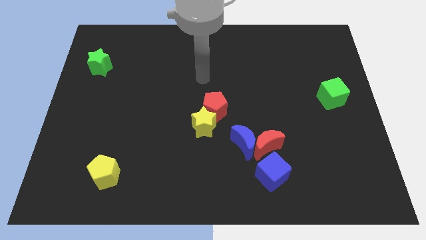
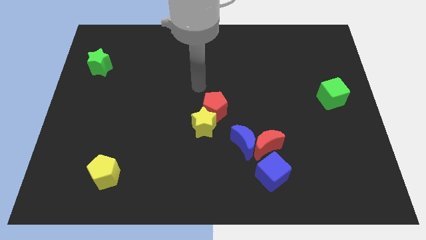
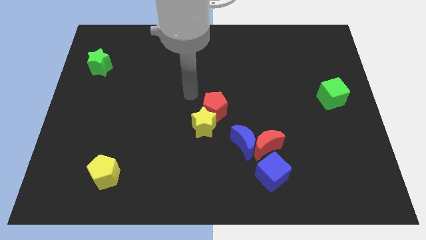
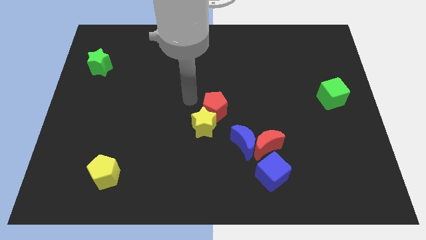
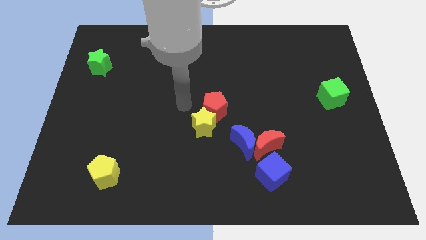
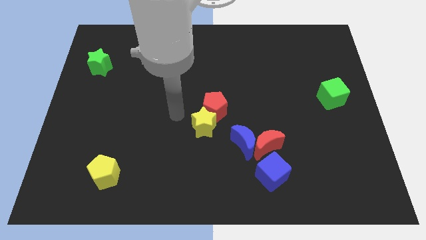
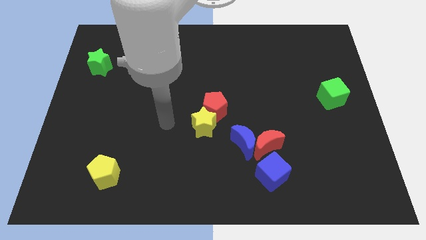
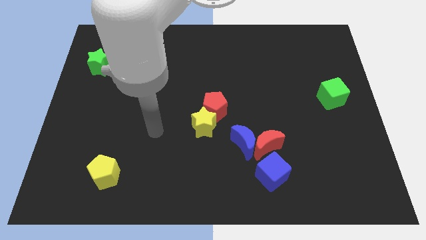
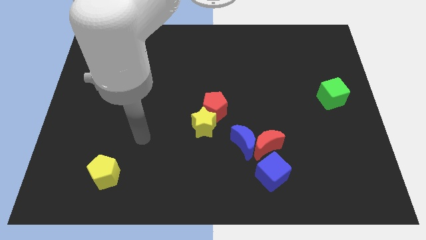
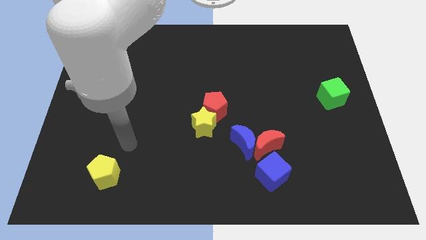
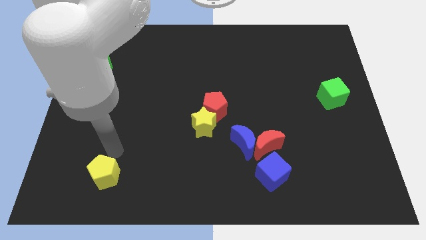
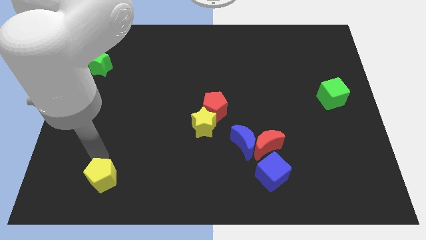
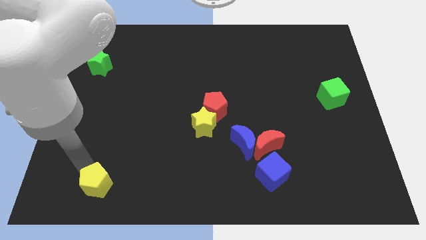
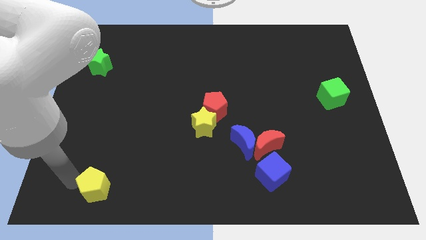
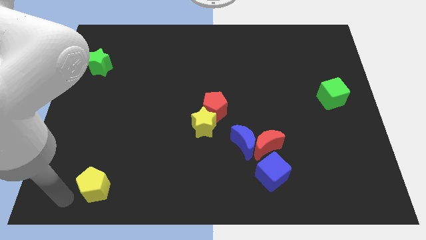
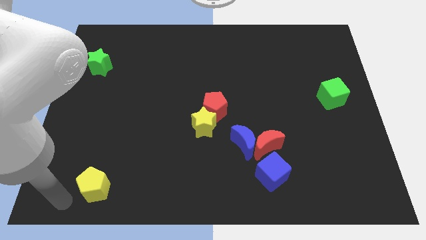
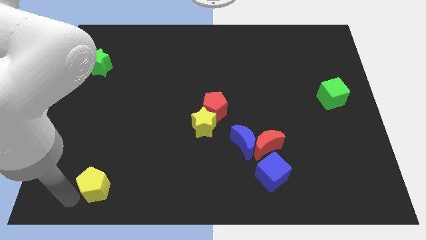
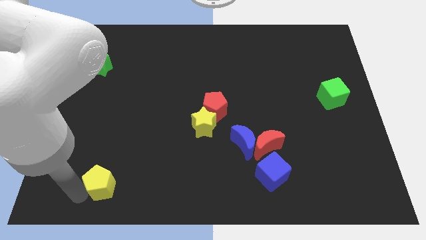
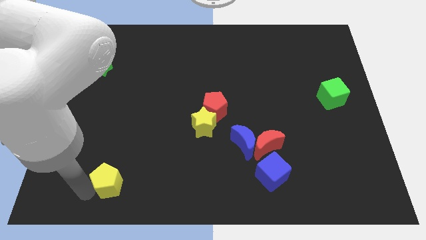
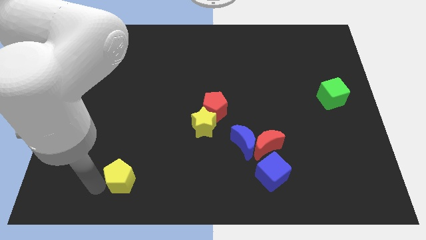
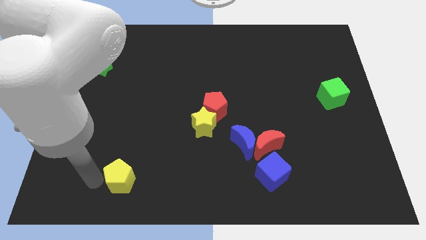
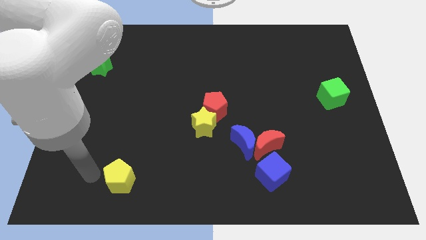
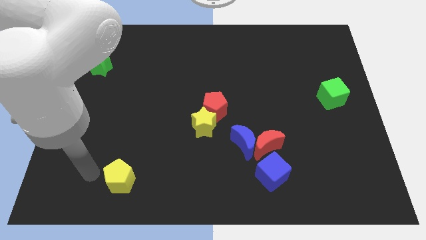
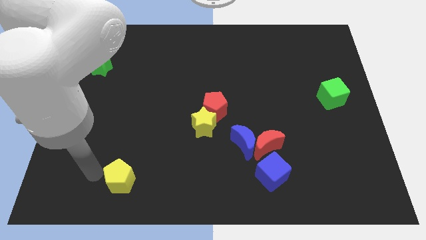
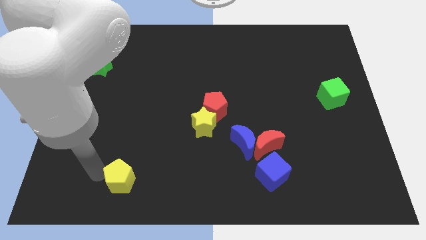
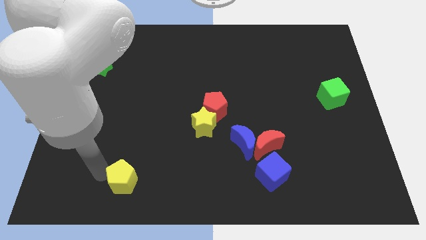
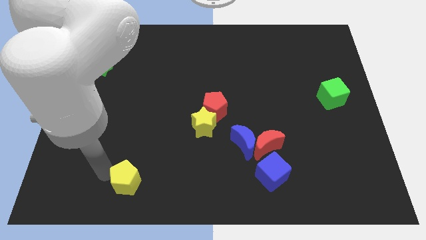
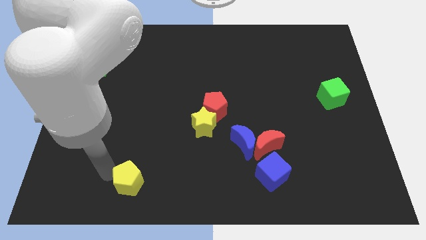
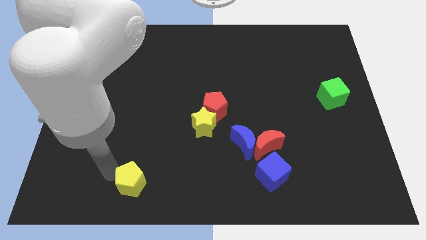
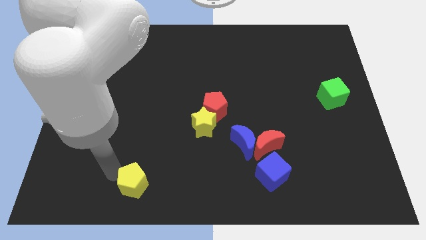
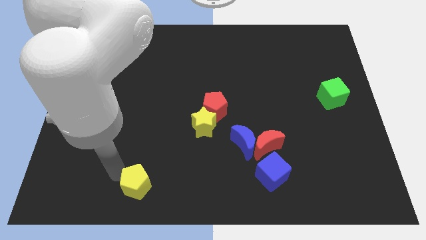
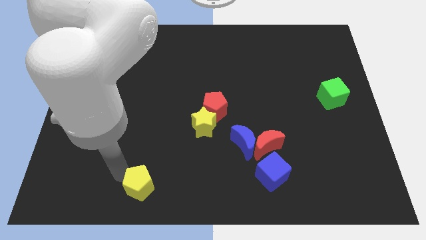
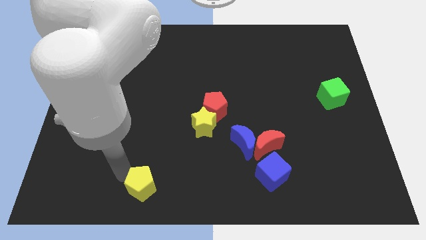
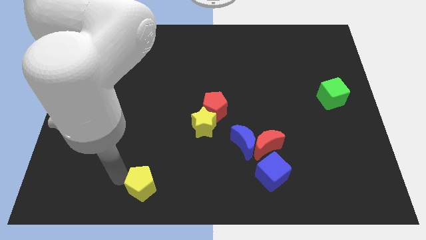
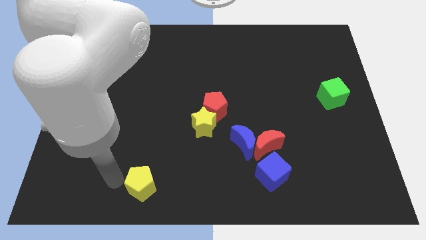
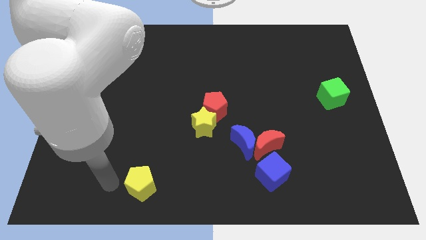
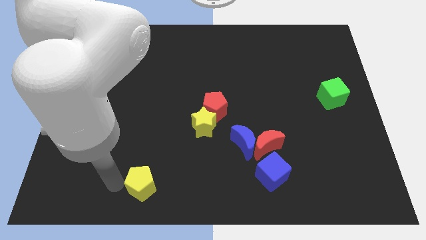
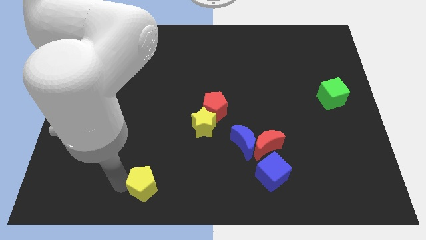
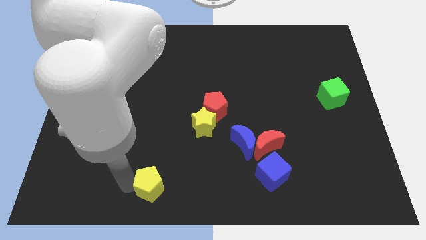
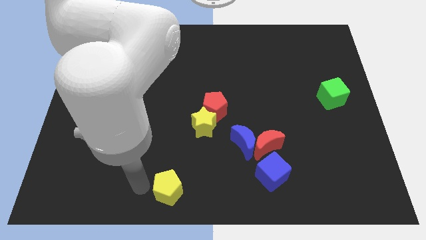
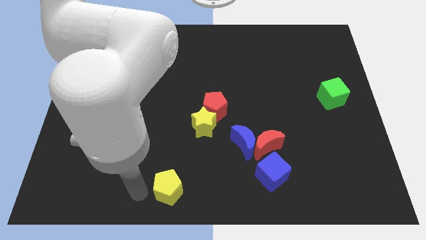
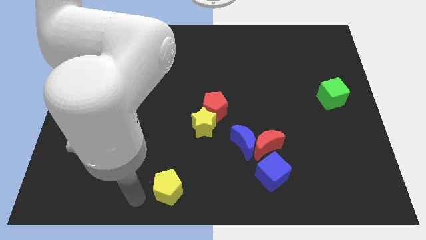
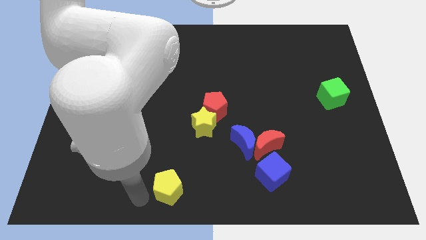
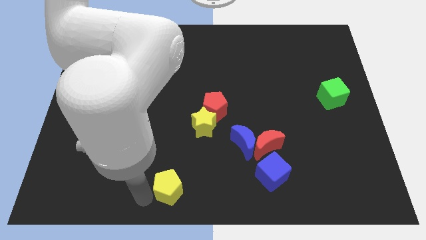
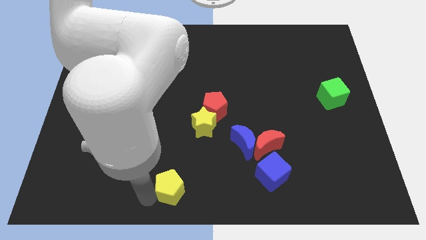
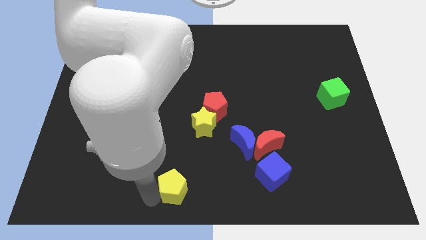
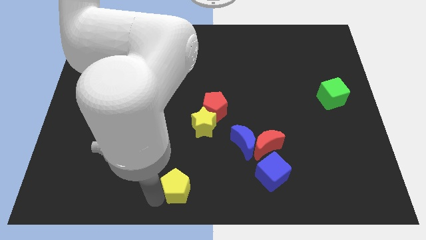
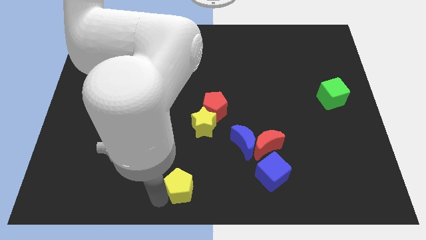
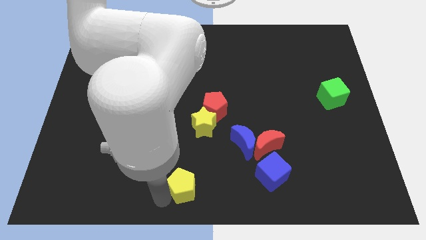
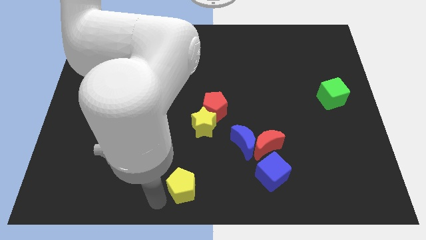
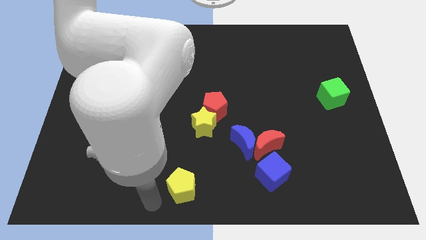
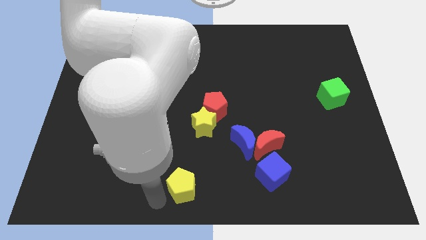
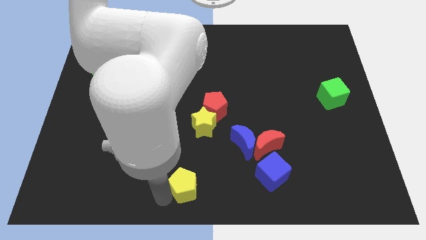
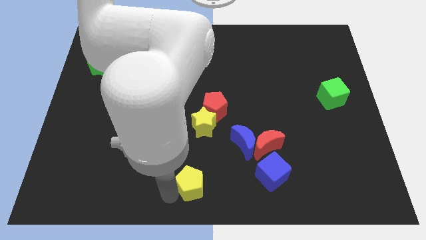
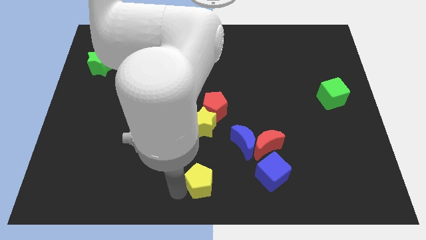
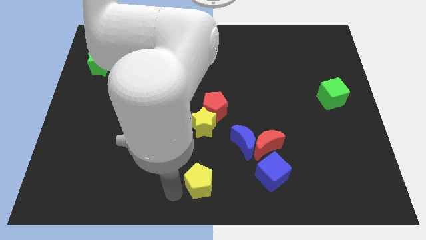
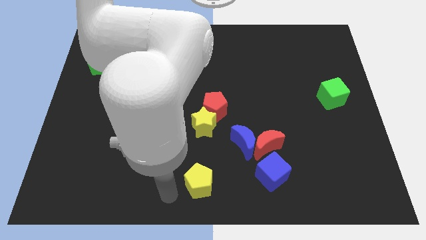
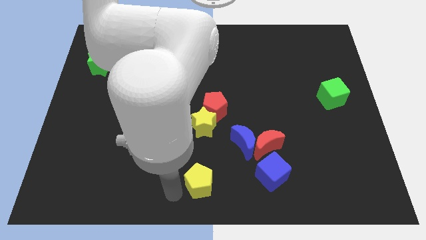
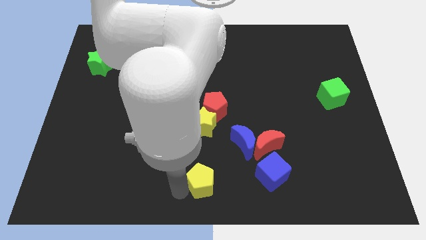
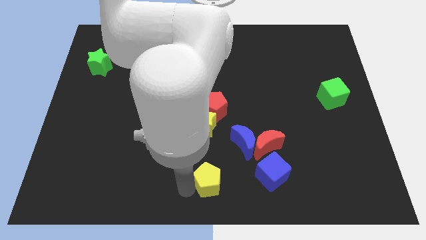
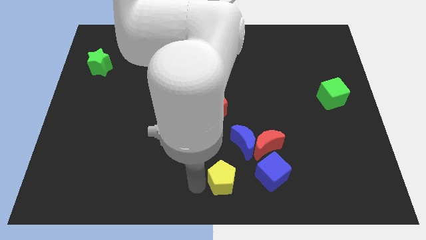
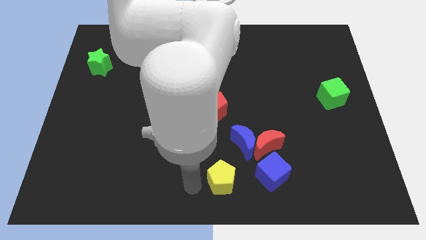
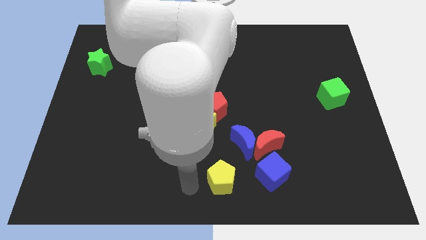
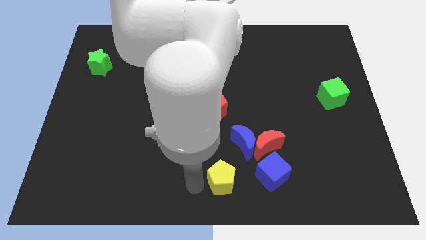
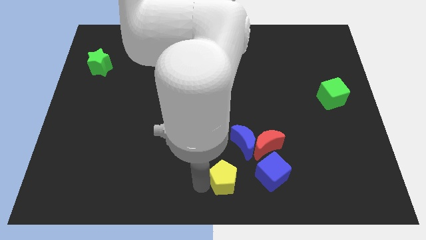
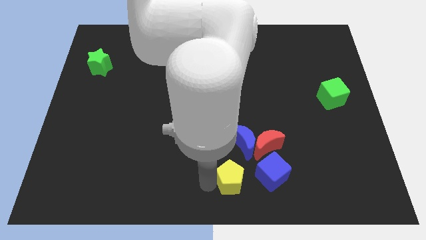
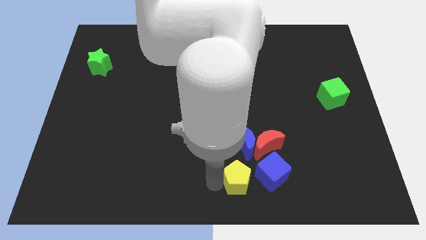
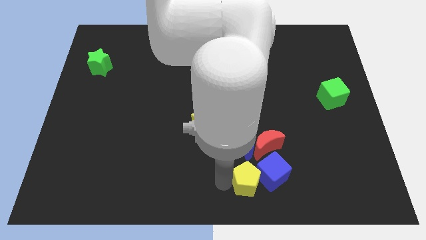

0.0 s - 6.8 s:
move the yellow pentagon to the blue cube

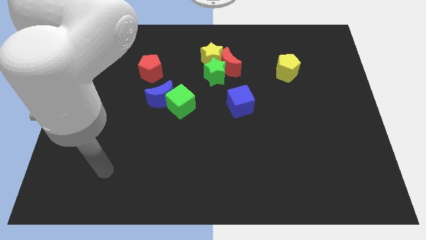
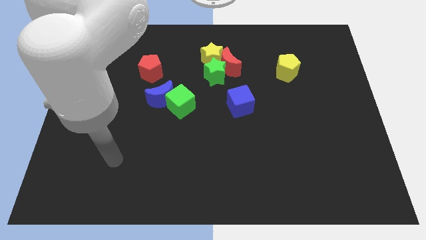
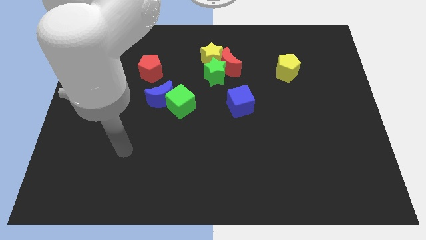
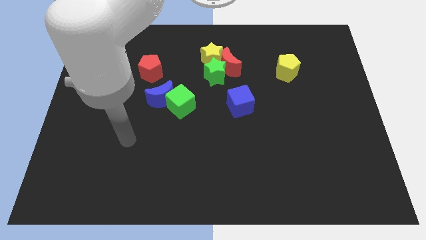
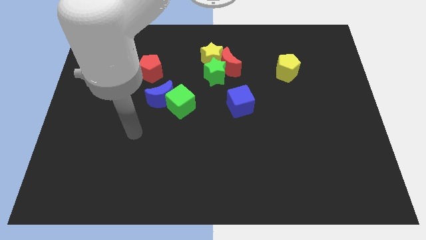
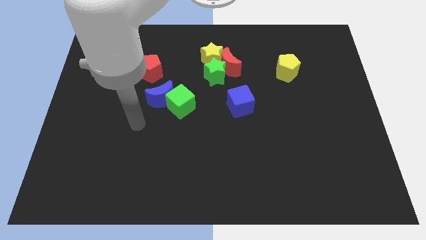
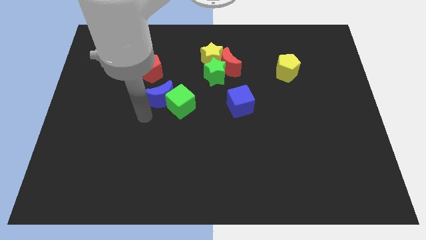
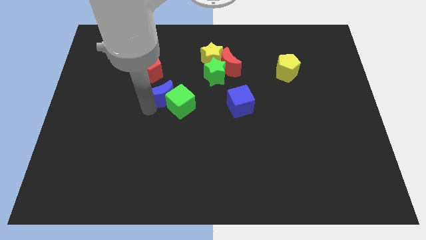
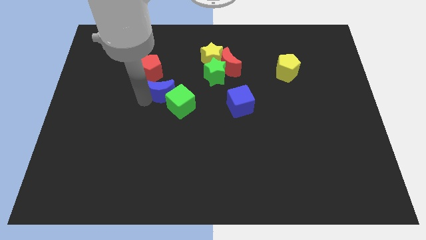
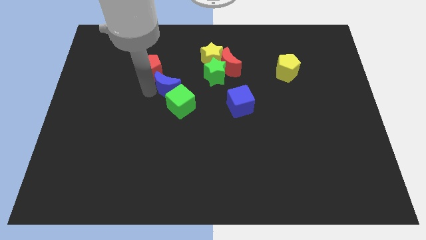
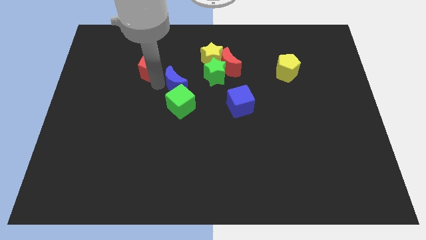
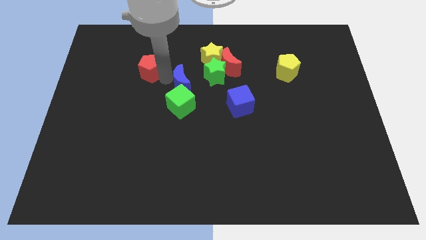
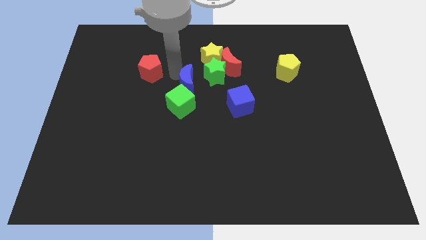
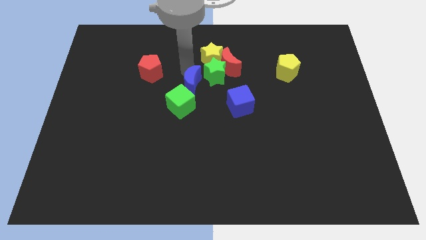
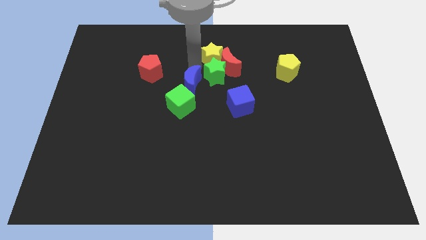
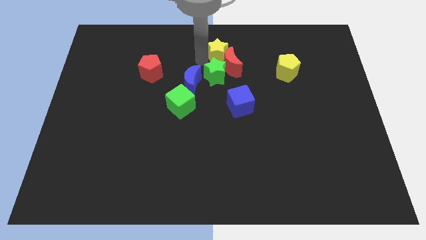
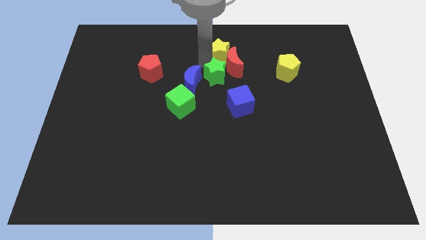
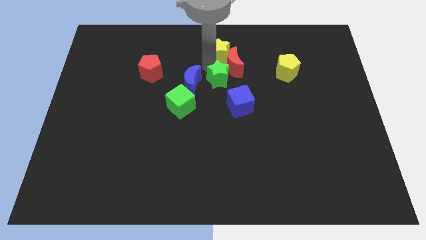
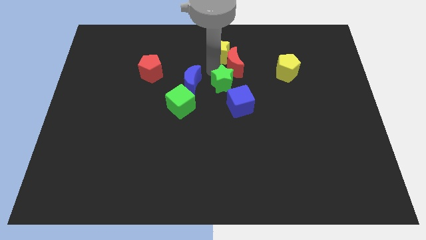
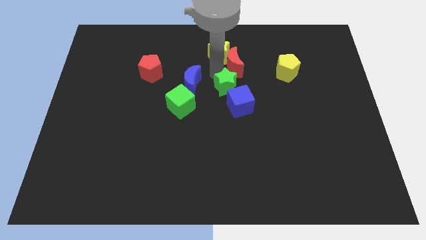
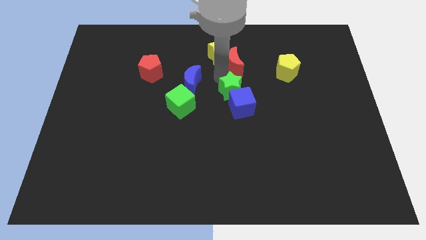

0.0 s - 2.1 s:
put the green star towards the blue cube
